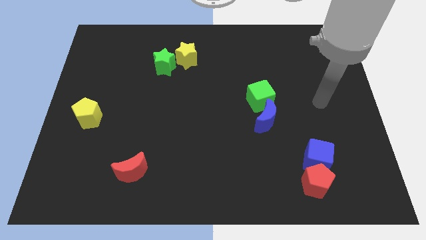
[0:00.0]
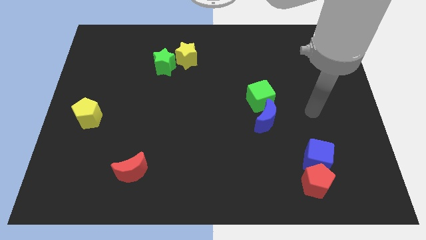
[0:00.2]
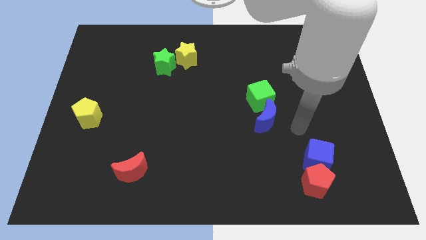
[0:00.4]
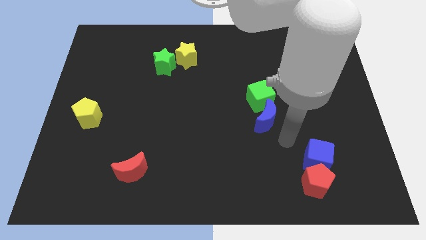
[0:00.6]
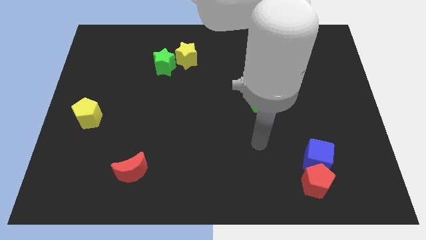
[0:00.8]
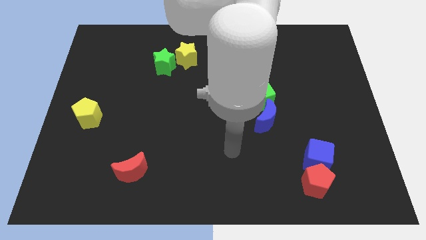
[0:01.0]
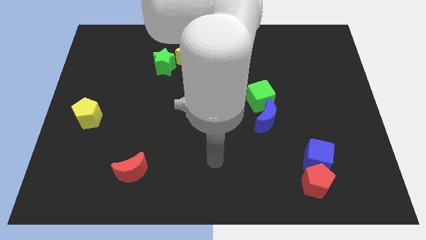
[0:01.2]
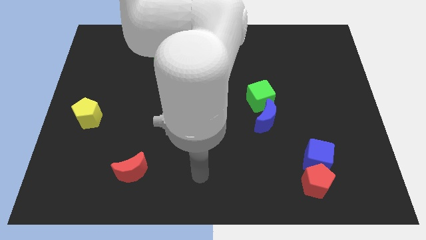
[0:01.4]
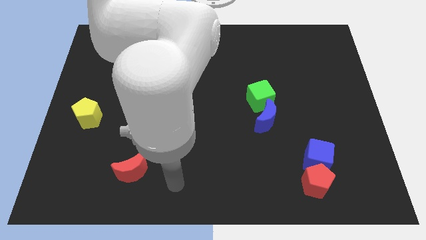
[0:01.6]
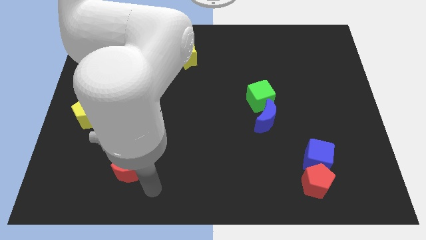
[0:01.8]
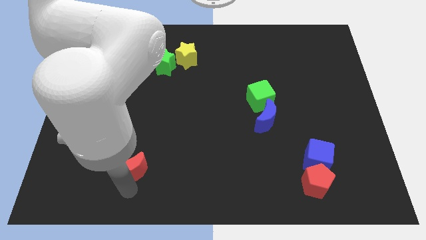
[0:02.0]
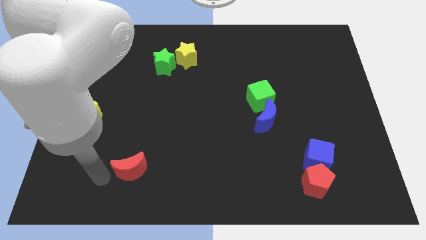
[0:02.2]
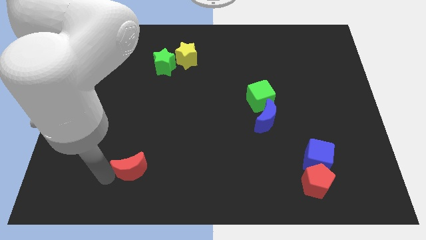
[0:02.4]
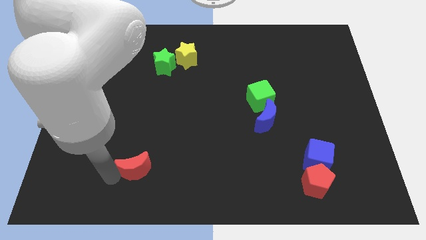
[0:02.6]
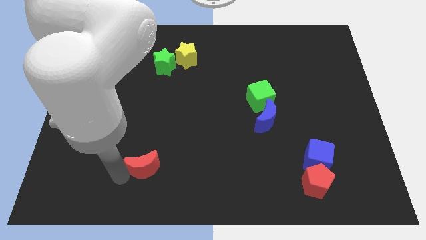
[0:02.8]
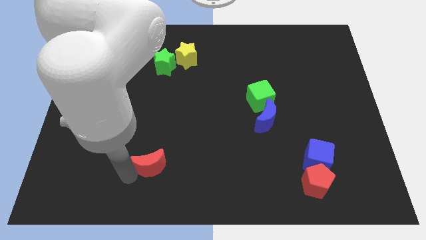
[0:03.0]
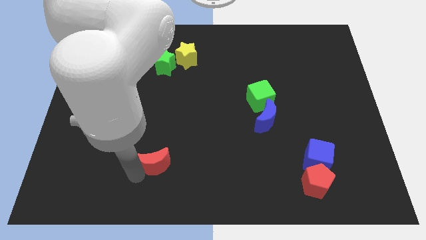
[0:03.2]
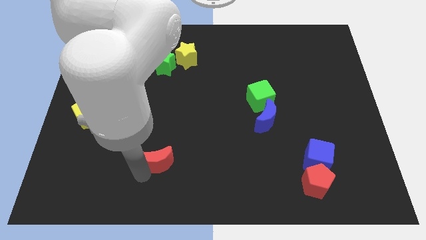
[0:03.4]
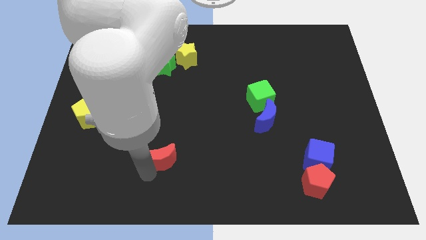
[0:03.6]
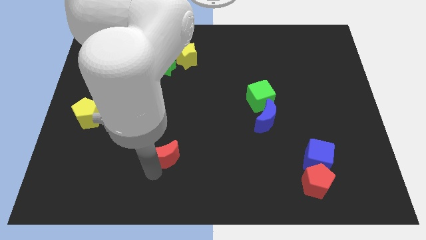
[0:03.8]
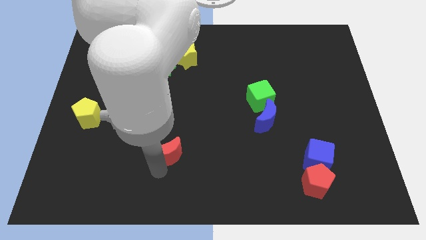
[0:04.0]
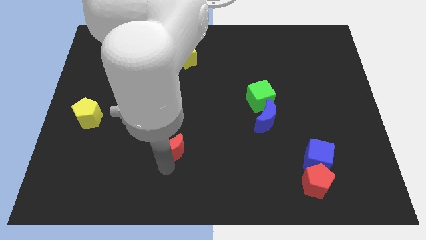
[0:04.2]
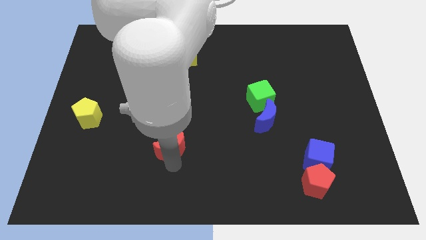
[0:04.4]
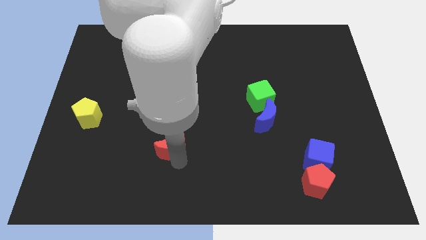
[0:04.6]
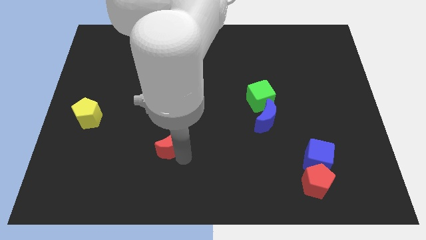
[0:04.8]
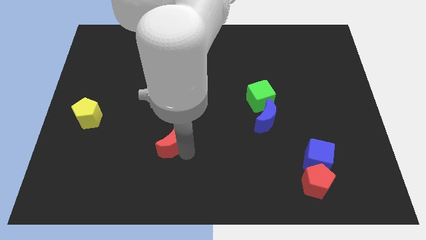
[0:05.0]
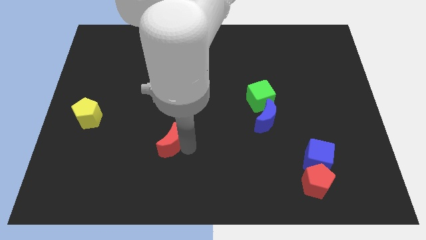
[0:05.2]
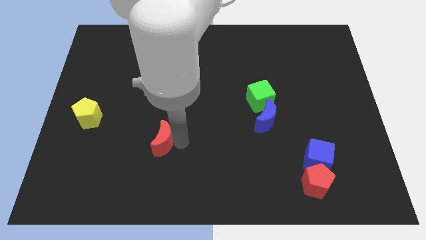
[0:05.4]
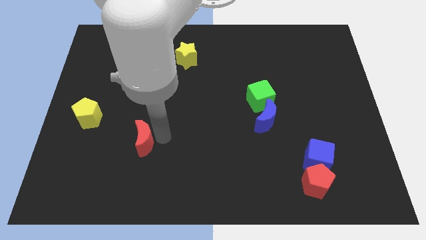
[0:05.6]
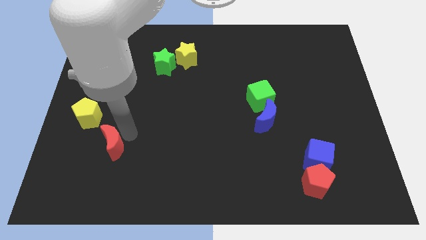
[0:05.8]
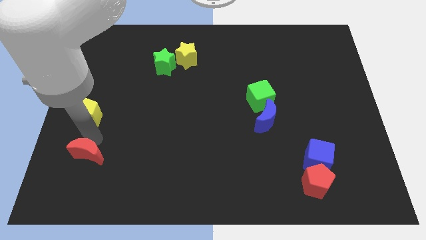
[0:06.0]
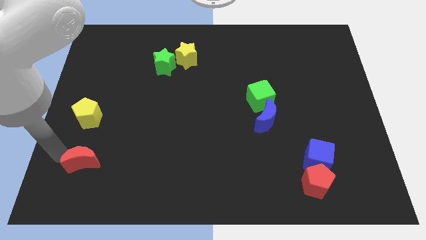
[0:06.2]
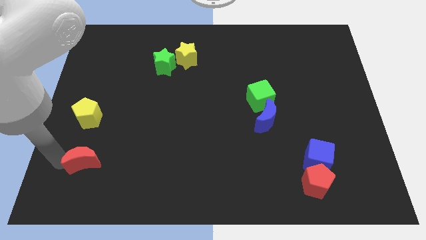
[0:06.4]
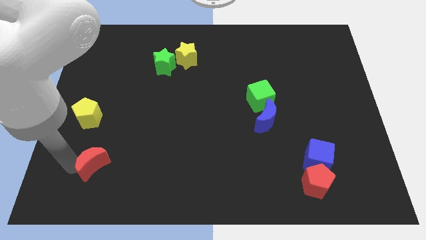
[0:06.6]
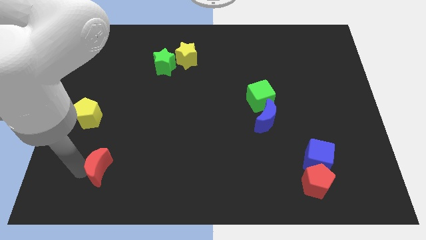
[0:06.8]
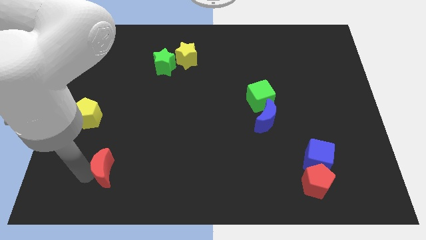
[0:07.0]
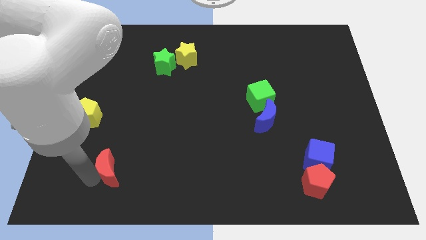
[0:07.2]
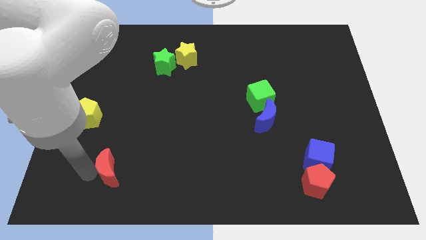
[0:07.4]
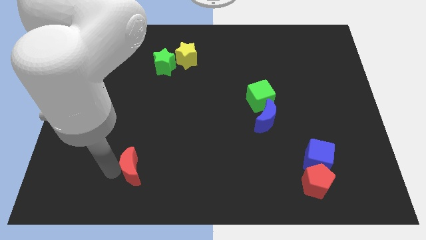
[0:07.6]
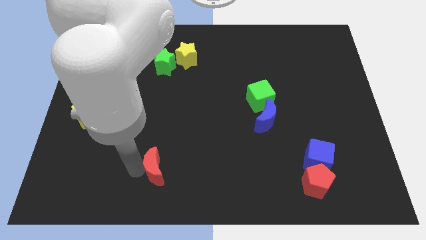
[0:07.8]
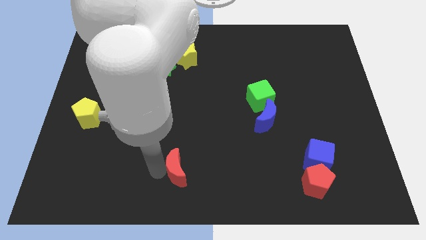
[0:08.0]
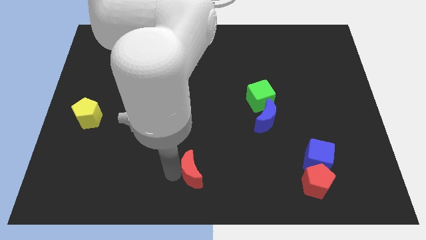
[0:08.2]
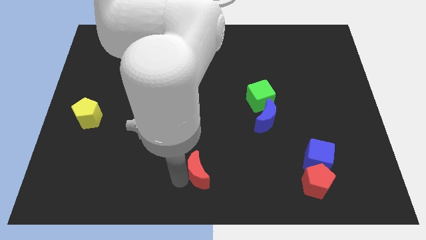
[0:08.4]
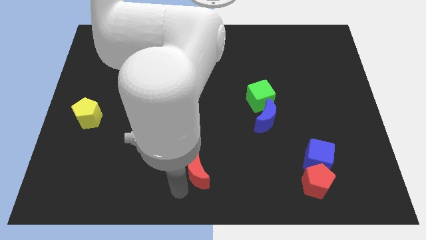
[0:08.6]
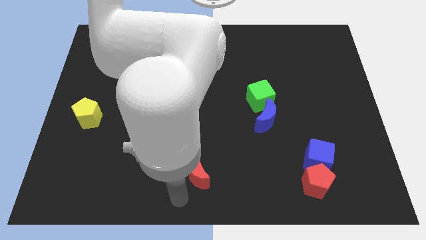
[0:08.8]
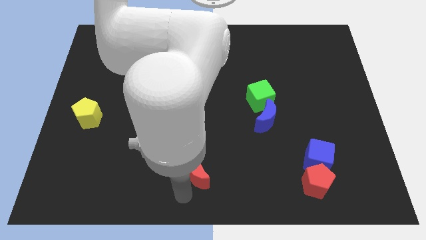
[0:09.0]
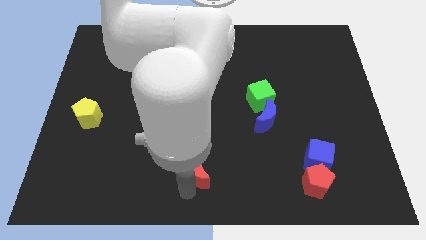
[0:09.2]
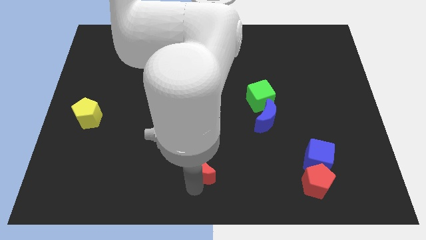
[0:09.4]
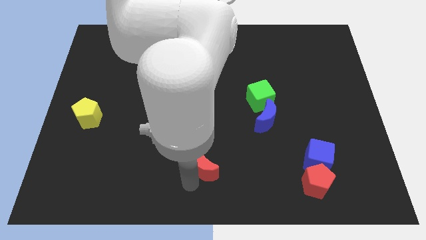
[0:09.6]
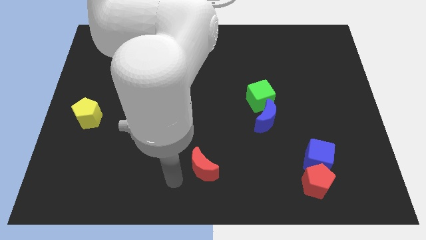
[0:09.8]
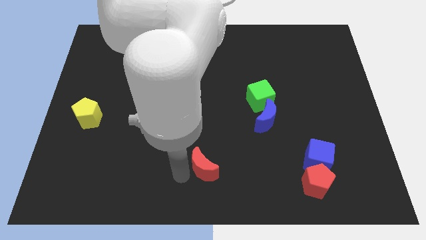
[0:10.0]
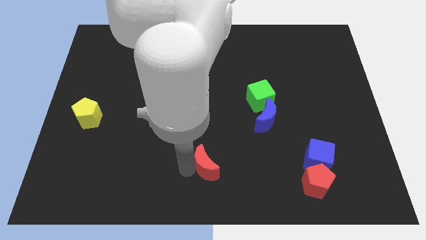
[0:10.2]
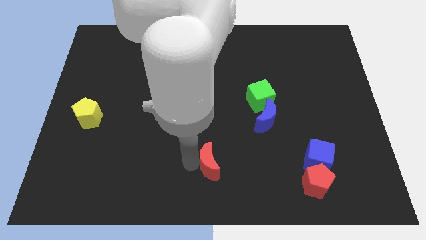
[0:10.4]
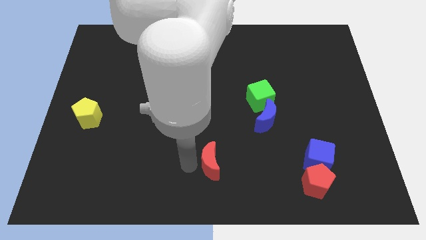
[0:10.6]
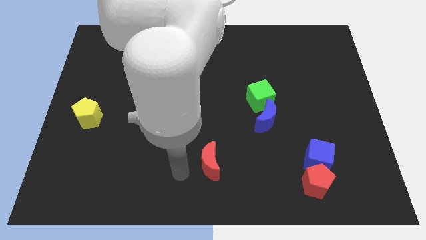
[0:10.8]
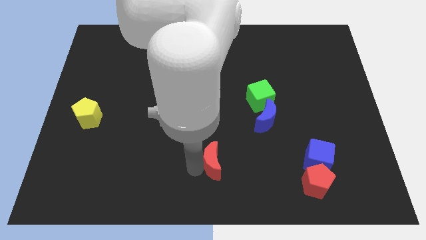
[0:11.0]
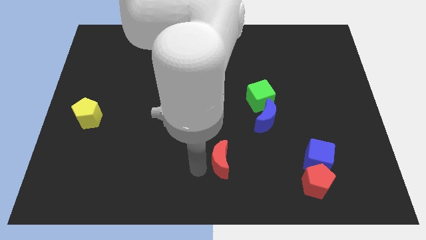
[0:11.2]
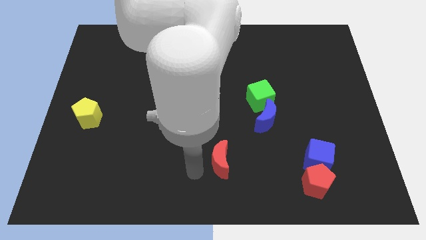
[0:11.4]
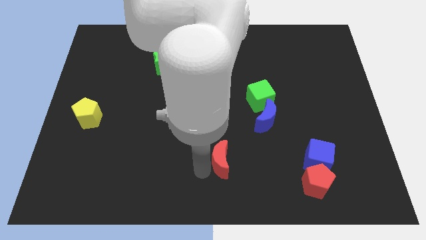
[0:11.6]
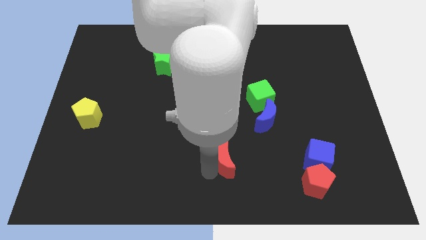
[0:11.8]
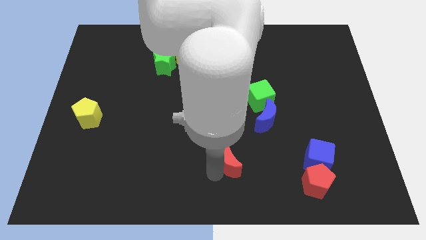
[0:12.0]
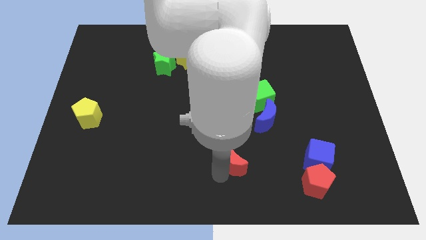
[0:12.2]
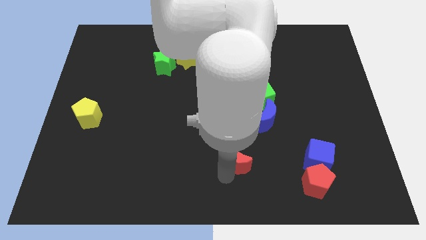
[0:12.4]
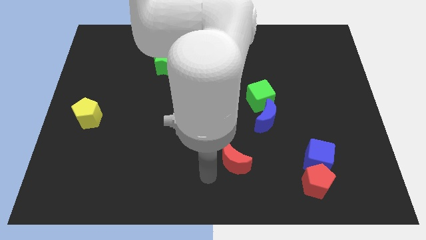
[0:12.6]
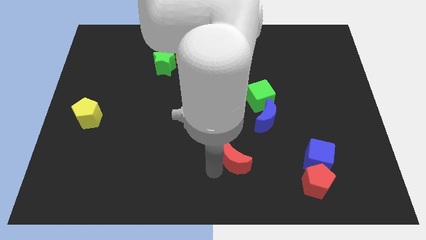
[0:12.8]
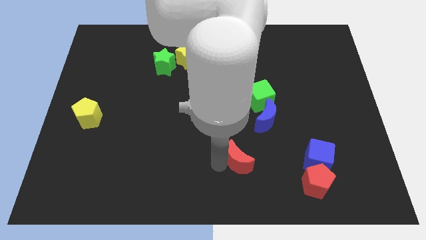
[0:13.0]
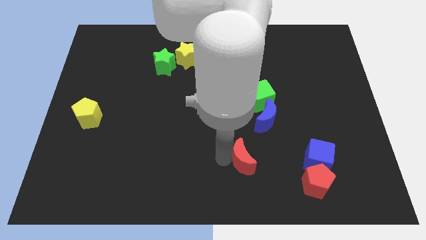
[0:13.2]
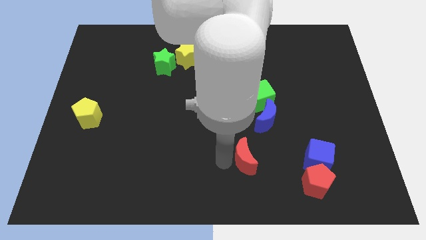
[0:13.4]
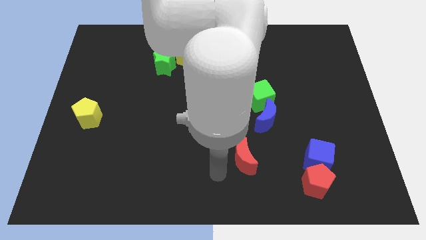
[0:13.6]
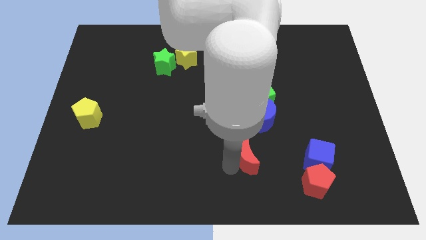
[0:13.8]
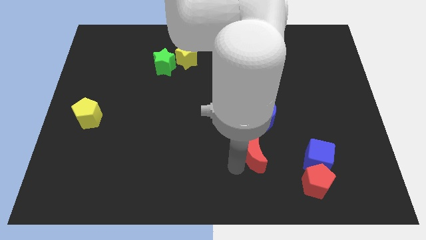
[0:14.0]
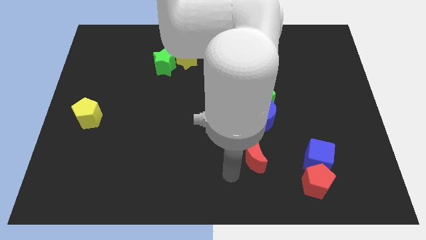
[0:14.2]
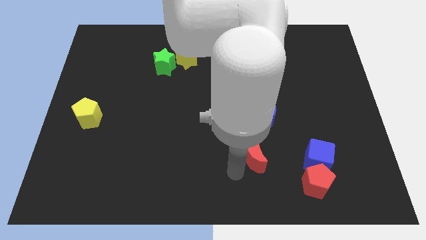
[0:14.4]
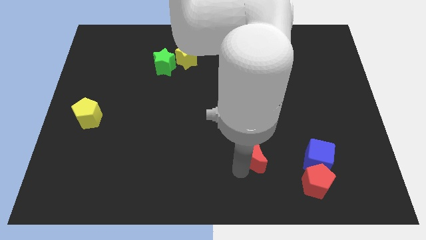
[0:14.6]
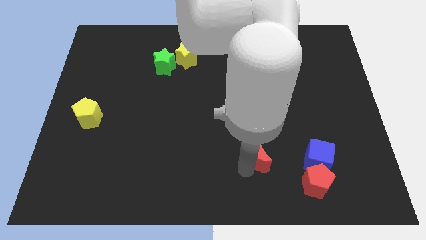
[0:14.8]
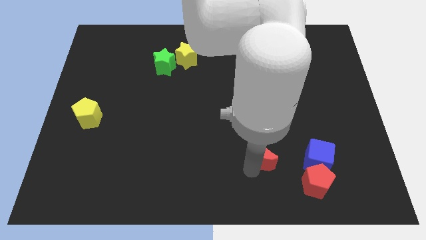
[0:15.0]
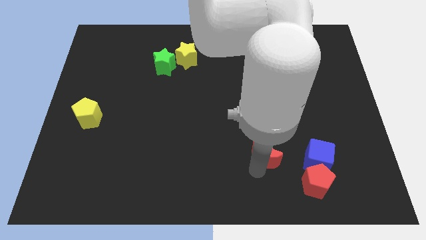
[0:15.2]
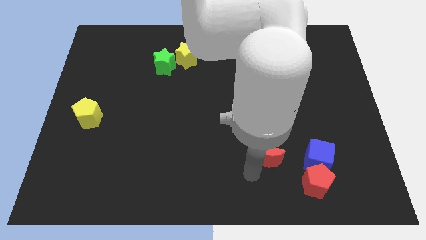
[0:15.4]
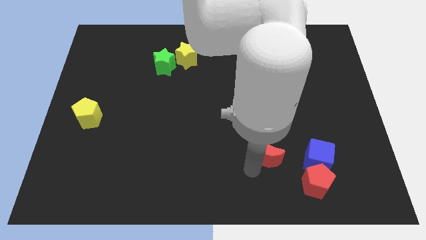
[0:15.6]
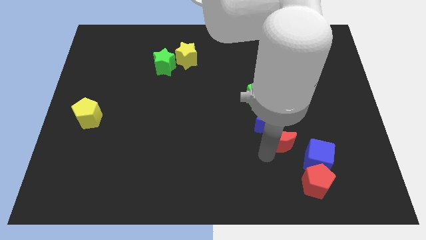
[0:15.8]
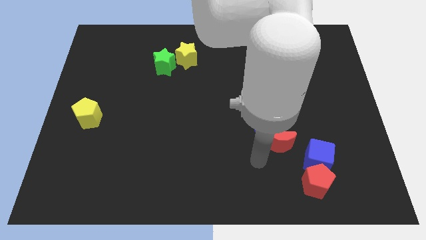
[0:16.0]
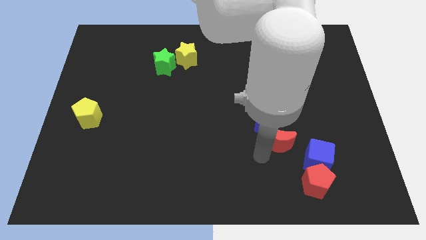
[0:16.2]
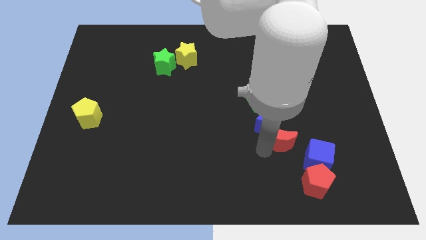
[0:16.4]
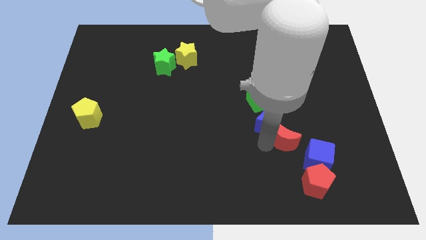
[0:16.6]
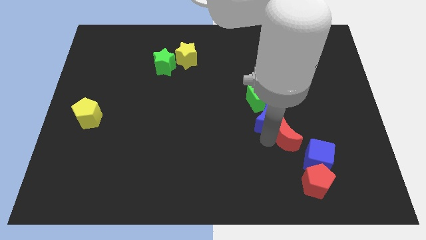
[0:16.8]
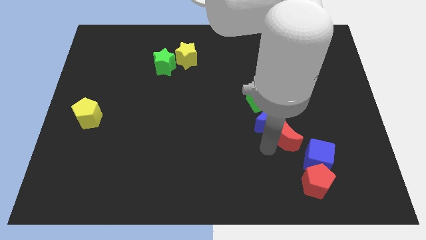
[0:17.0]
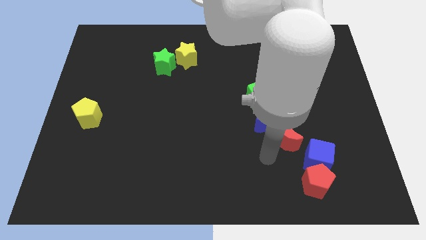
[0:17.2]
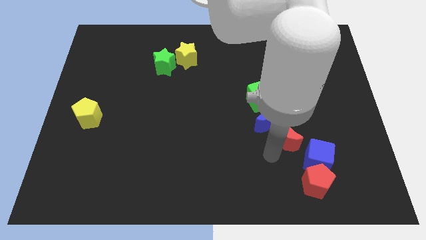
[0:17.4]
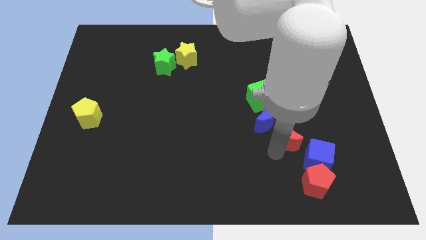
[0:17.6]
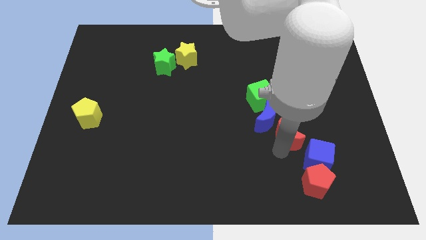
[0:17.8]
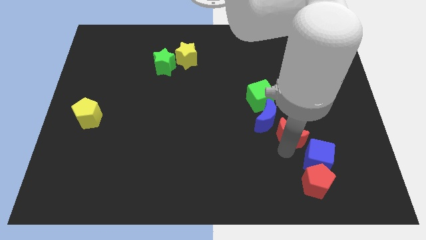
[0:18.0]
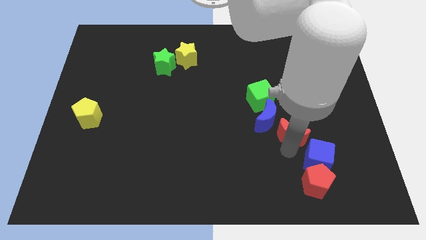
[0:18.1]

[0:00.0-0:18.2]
slide the red moon to the top of the blue cube
